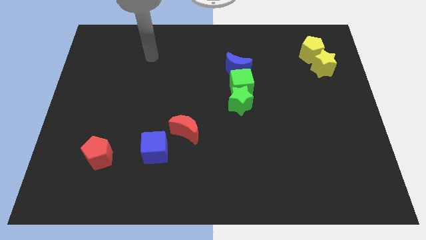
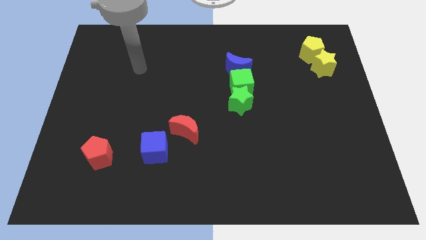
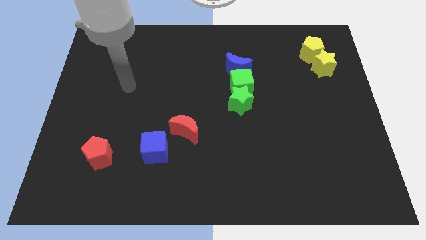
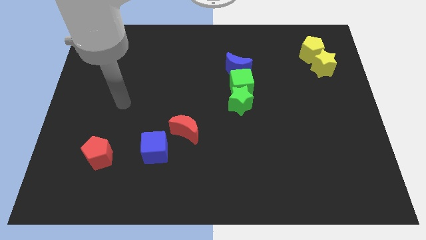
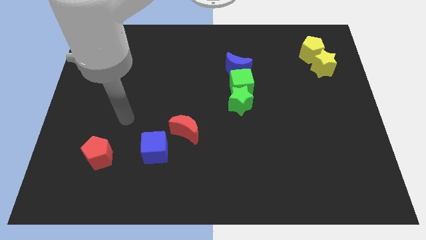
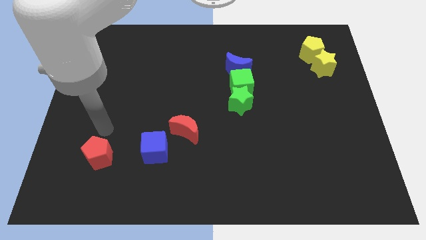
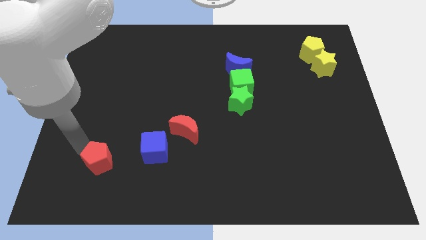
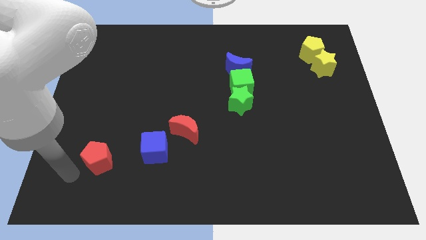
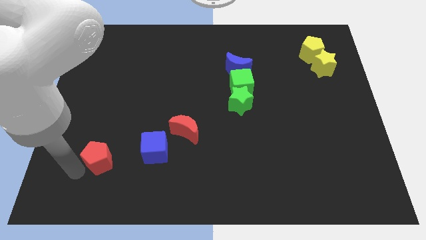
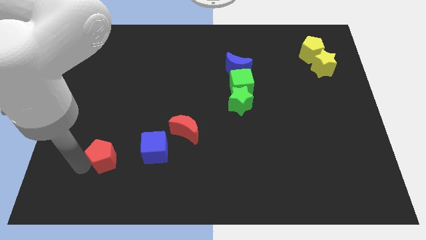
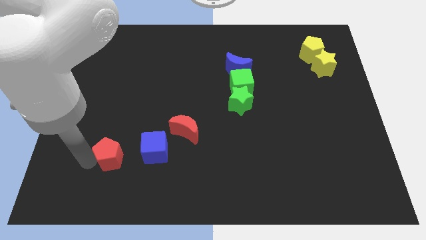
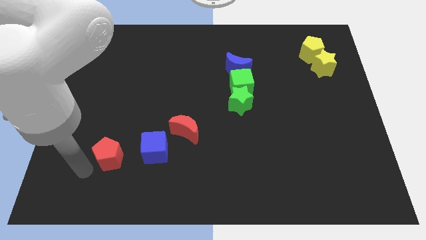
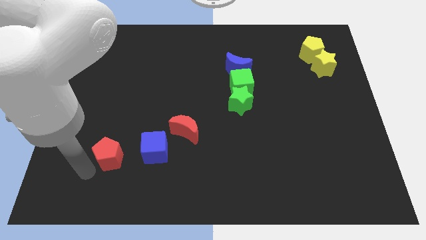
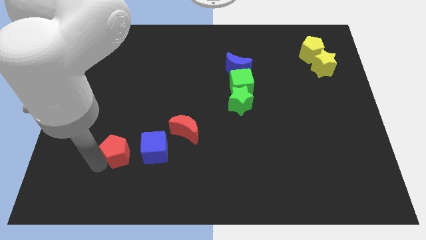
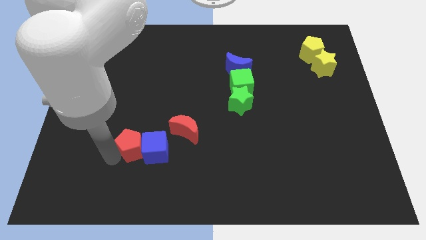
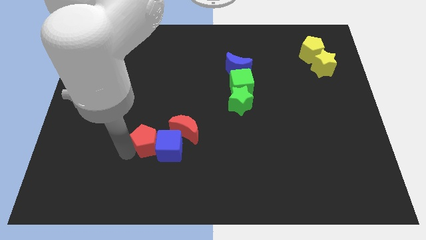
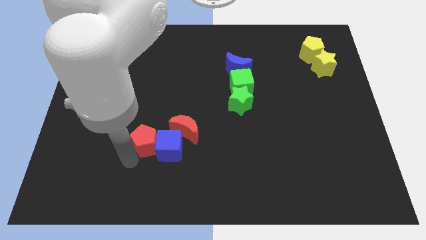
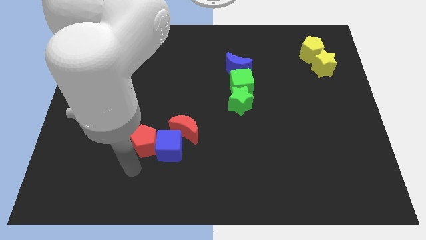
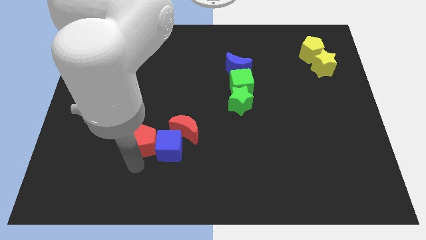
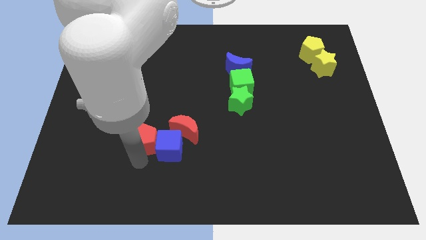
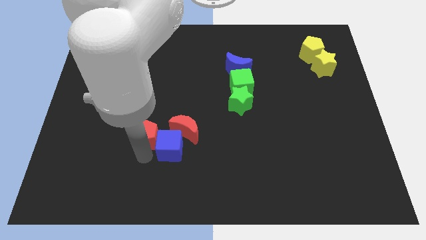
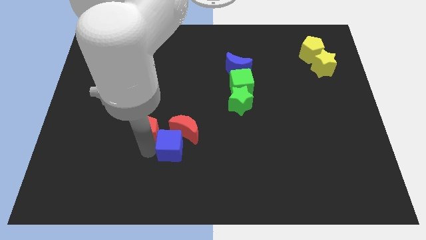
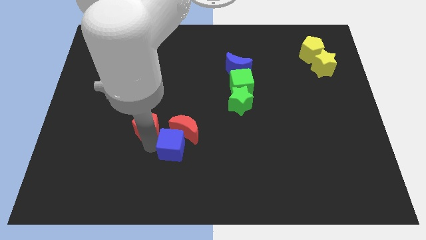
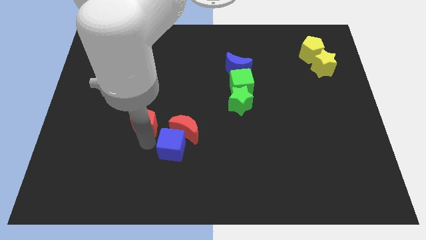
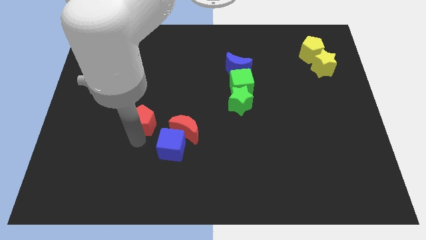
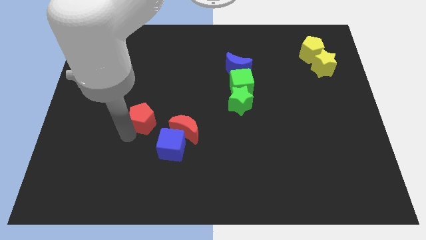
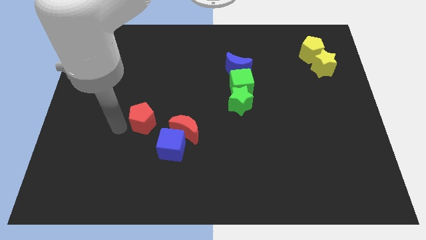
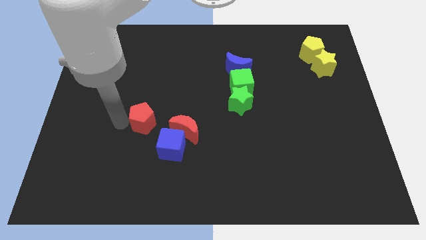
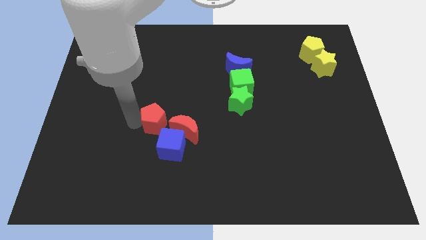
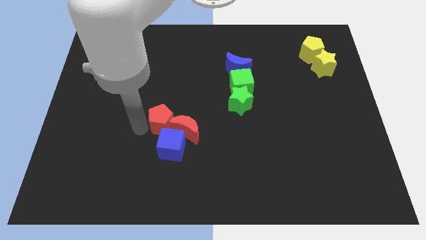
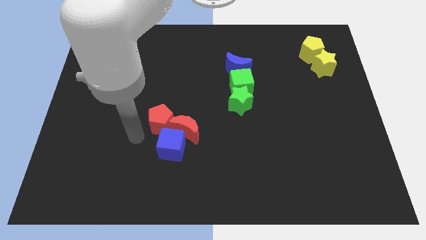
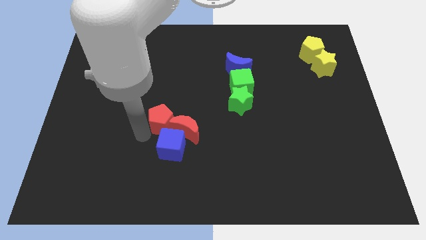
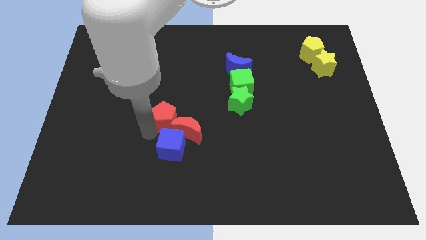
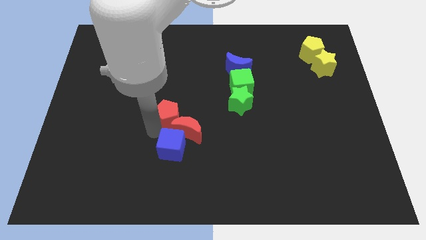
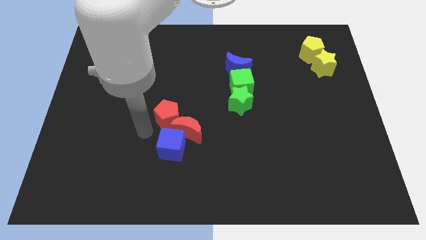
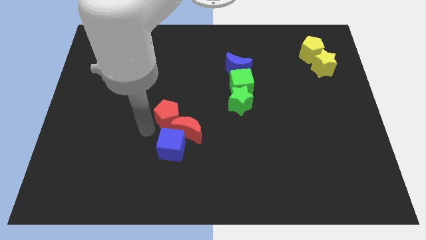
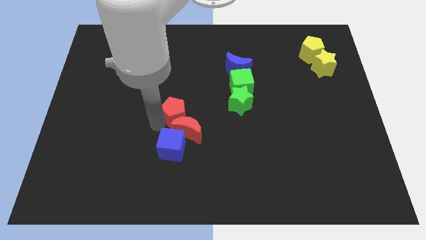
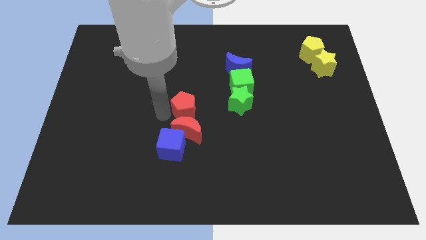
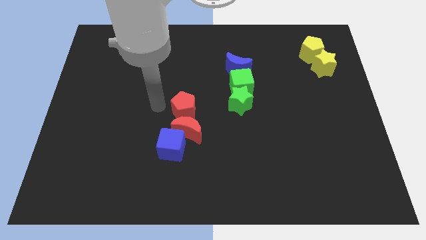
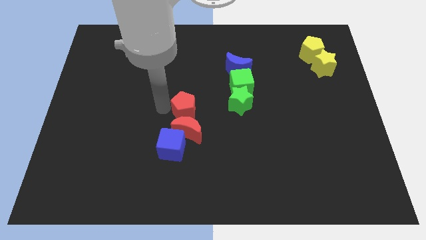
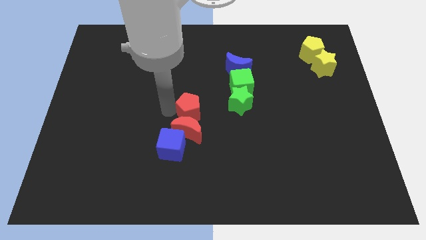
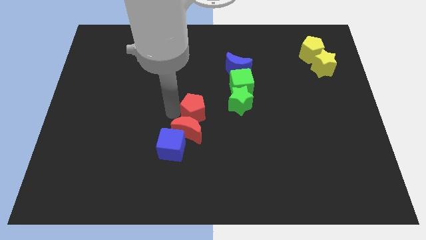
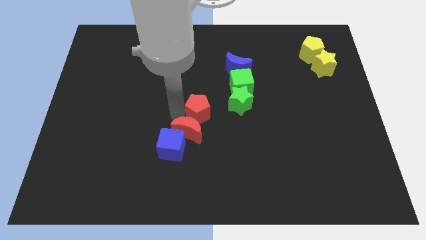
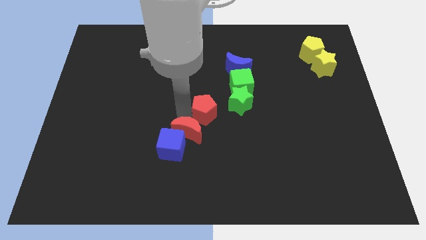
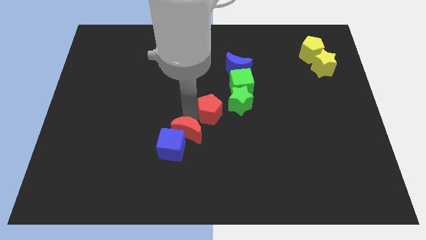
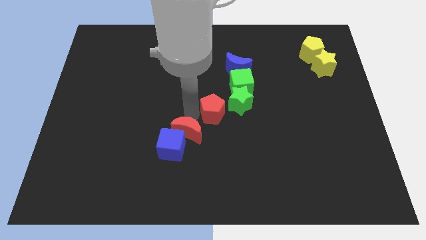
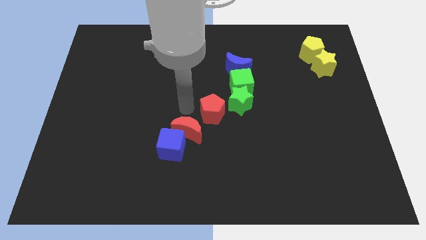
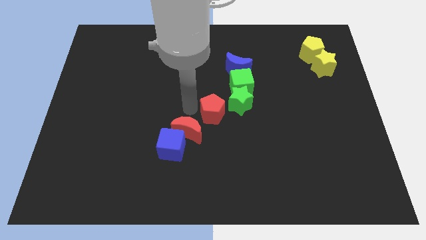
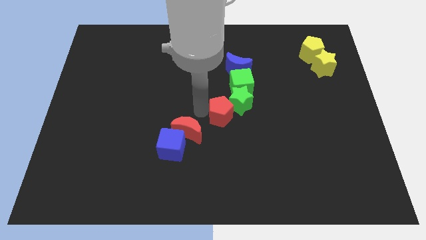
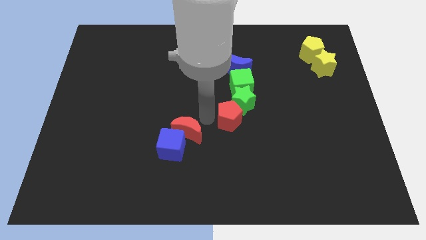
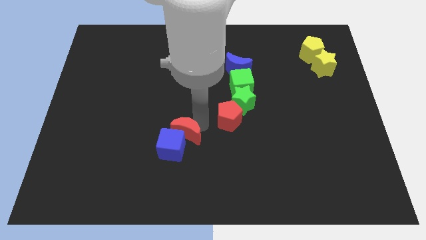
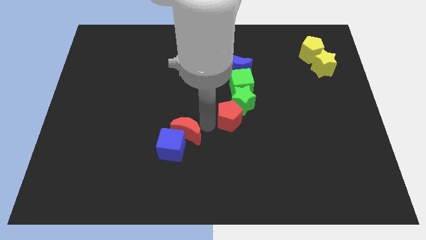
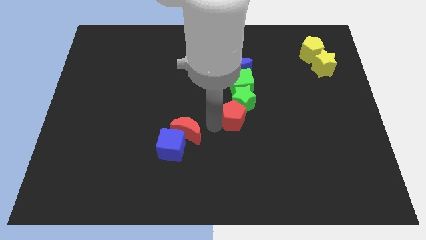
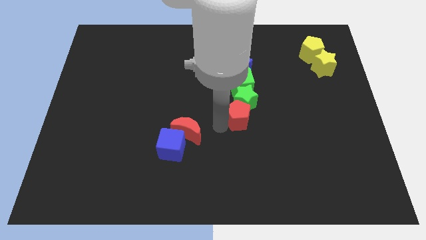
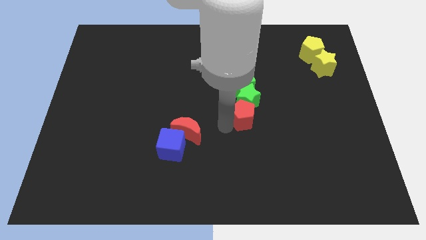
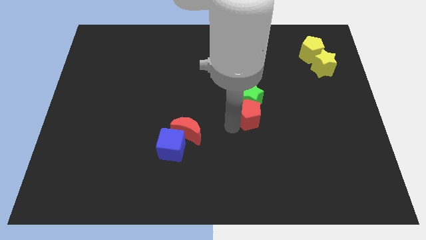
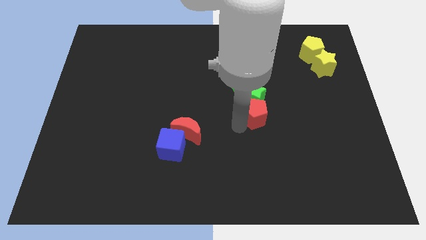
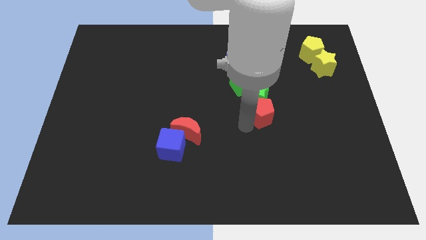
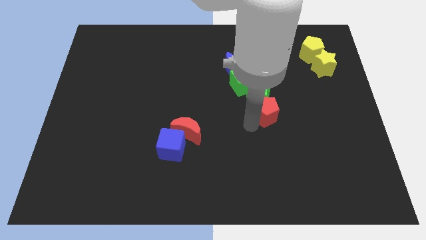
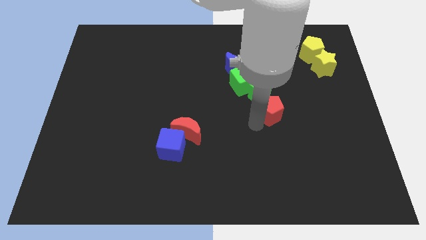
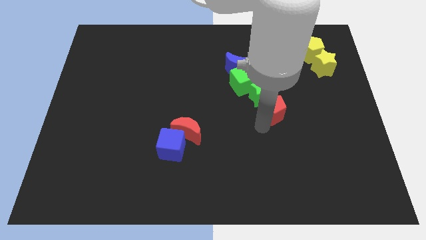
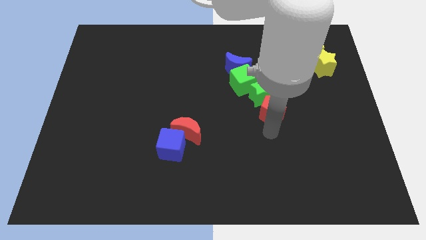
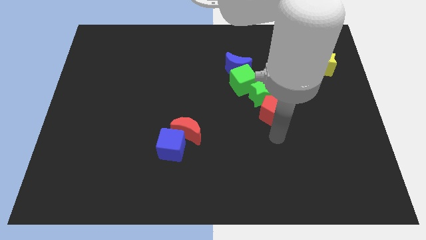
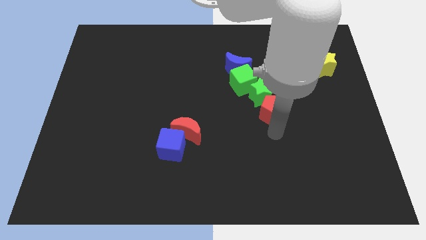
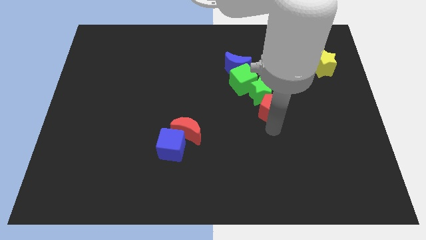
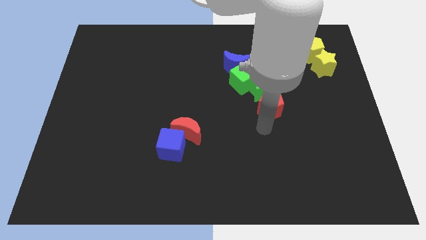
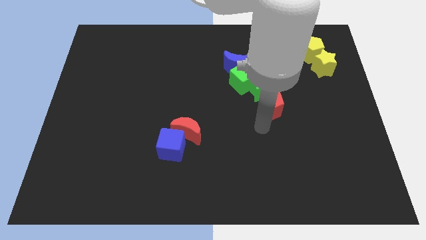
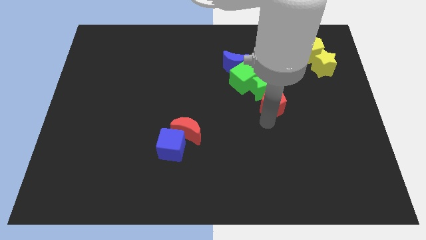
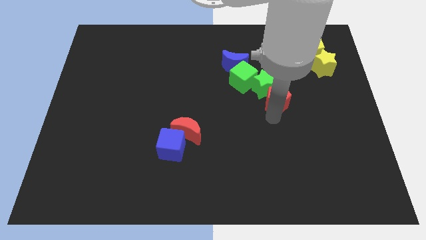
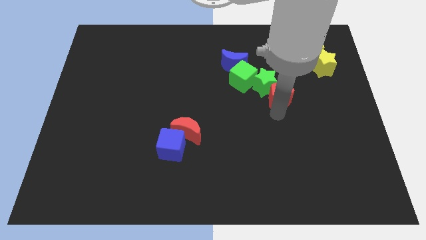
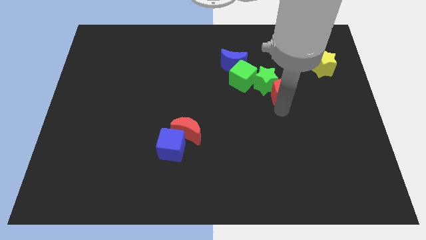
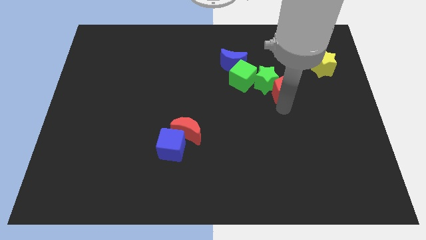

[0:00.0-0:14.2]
move the red pentagon right of the green cube
